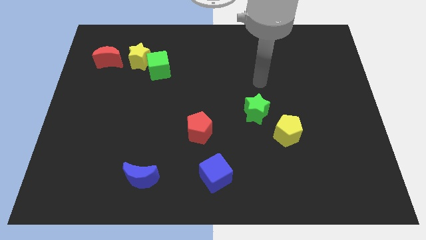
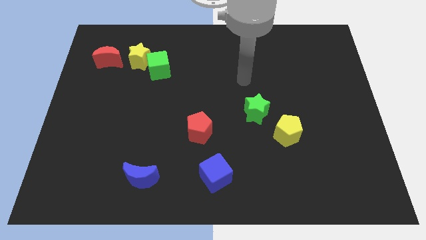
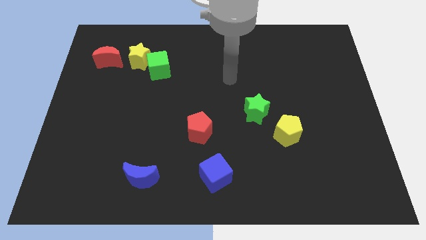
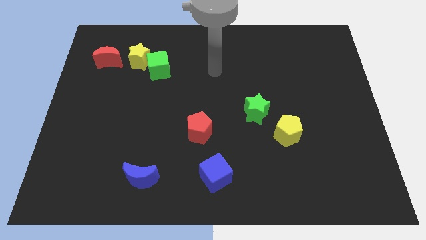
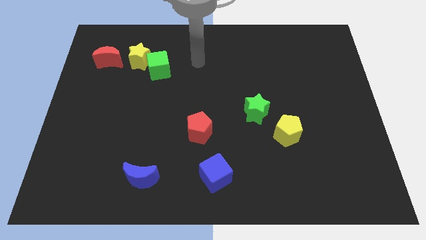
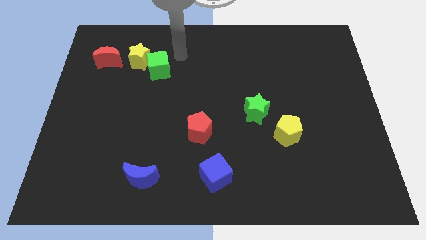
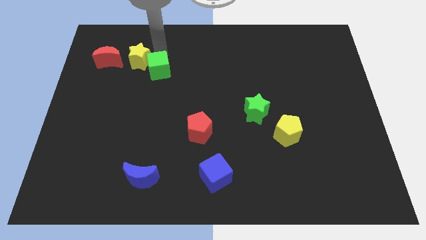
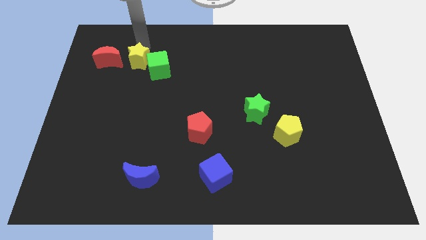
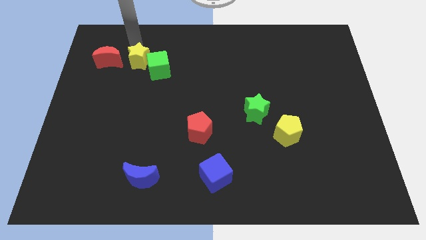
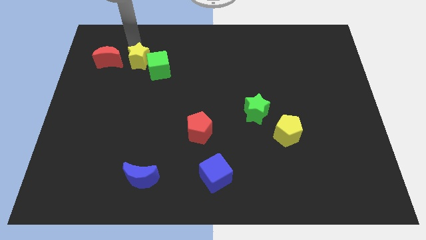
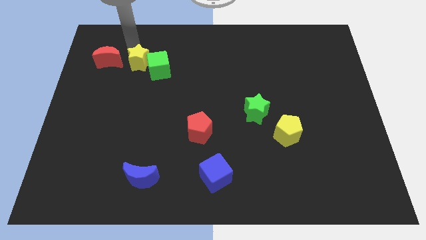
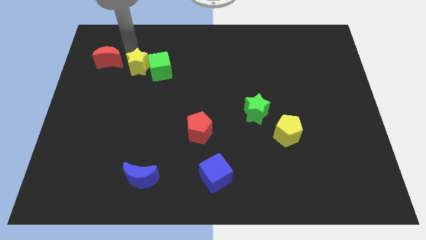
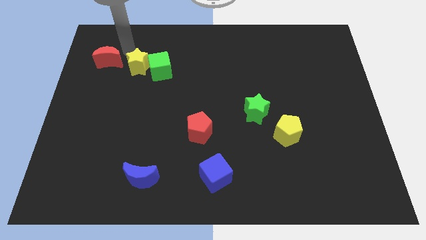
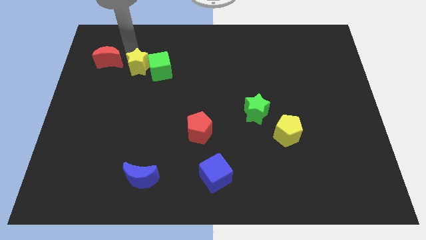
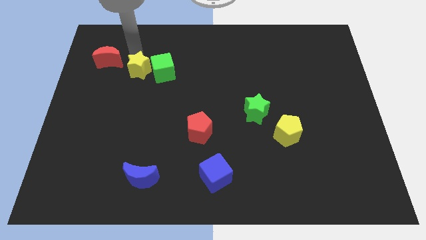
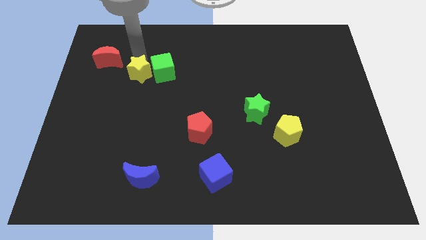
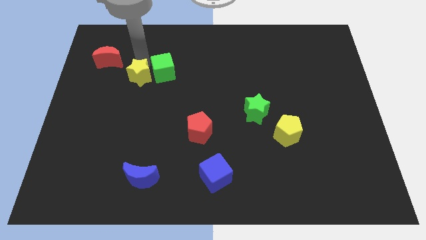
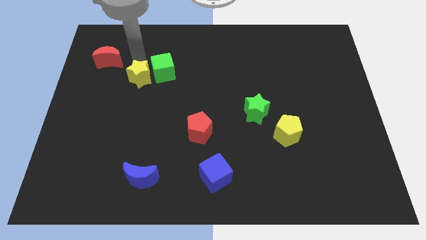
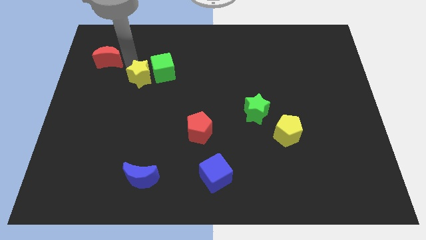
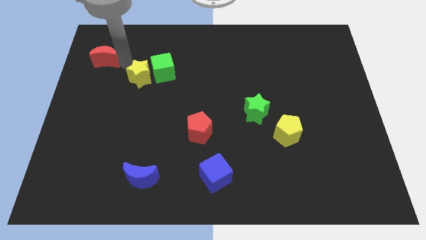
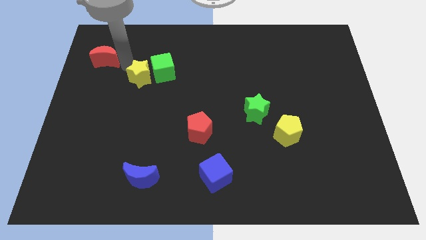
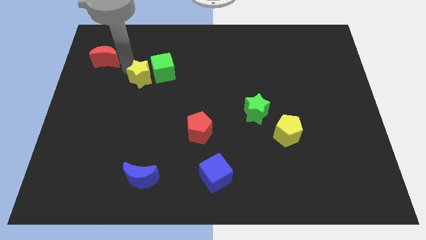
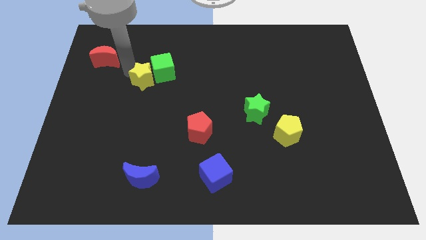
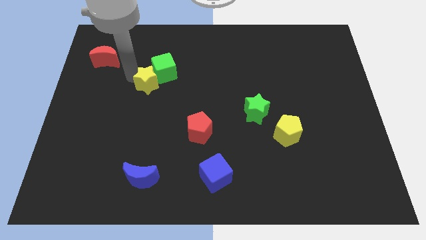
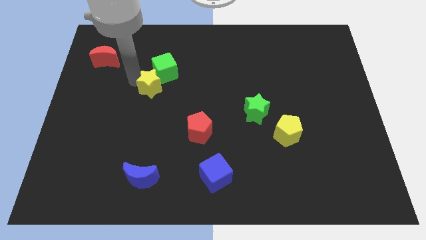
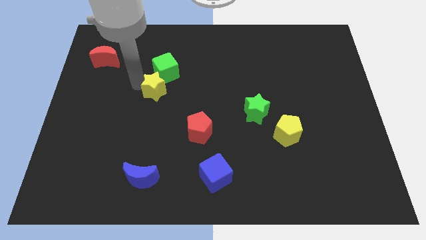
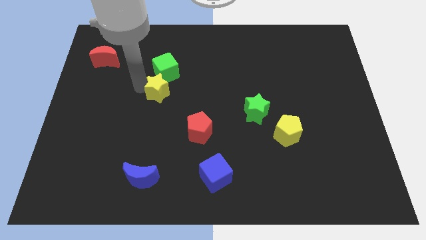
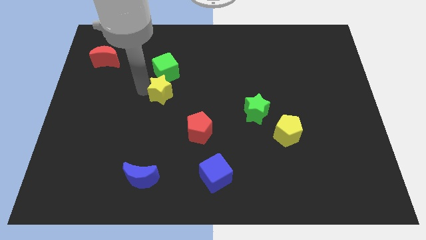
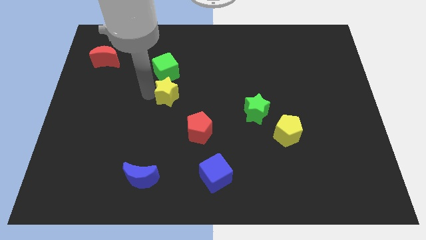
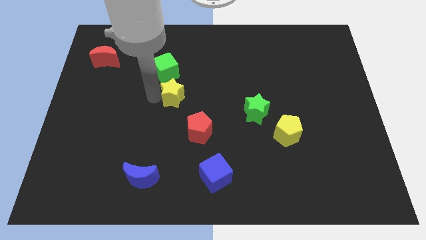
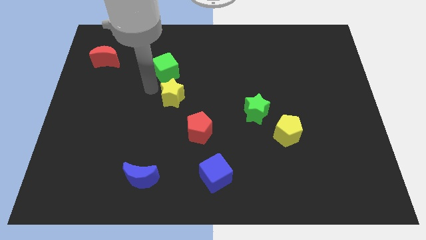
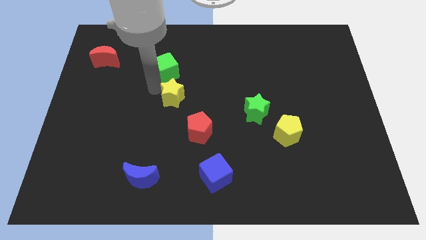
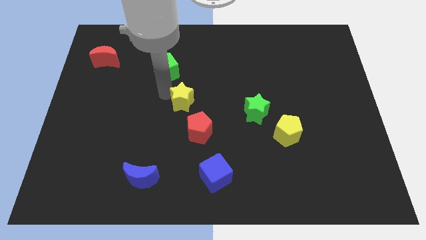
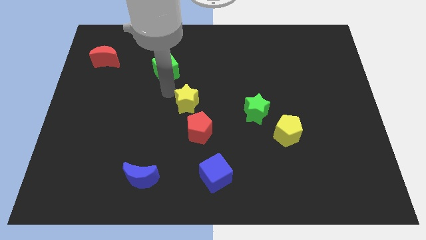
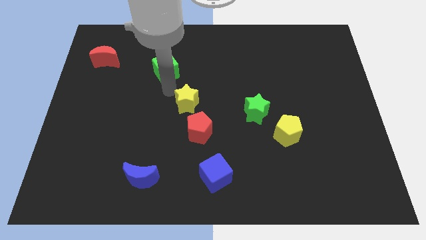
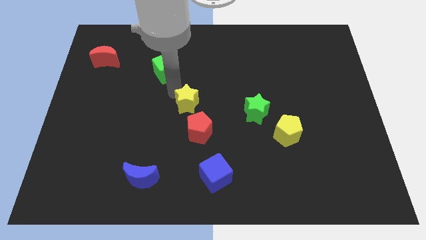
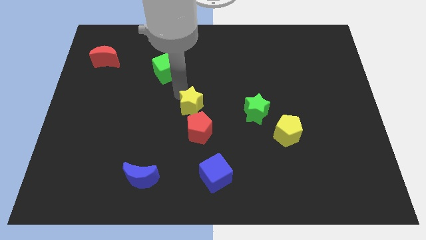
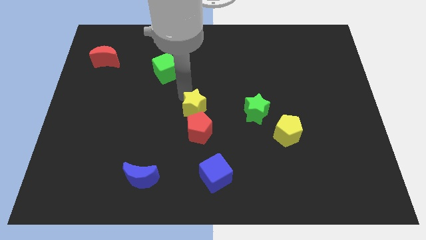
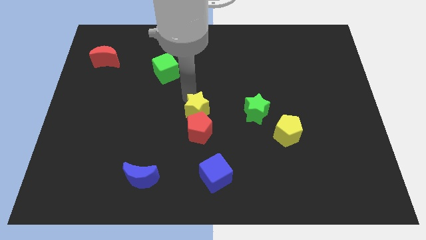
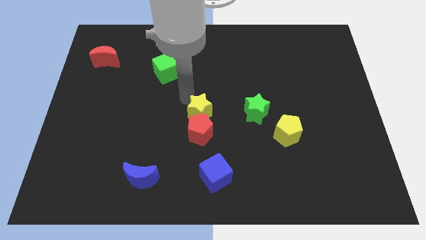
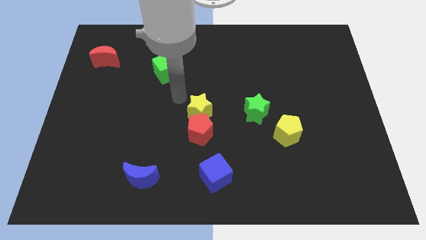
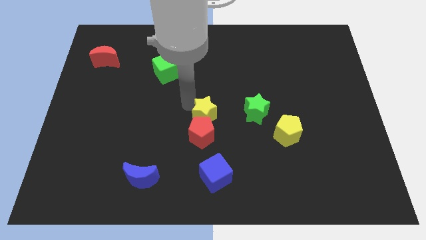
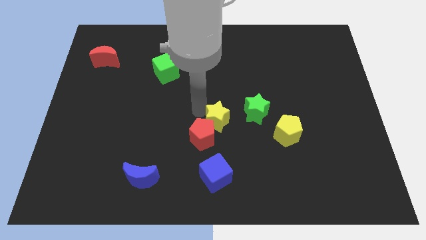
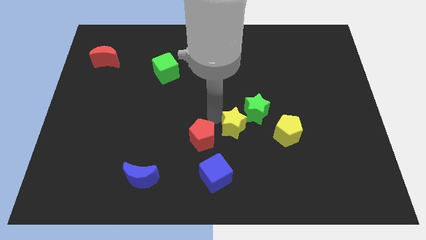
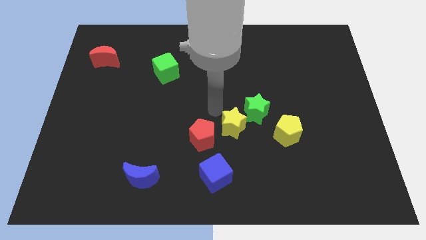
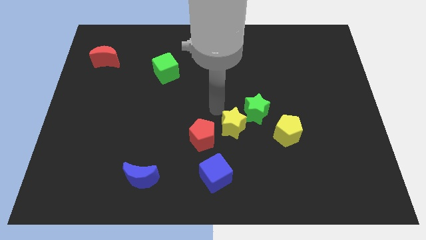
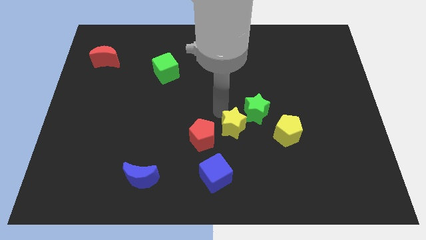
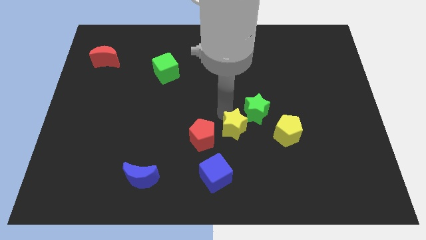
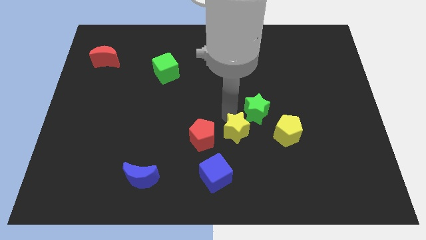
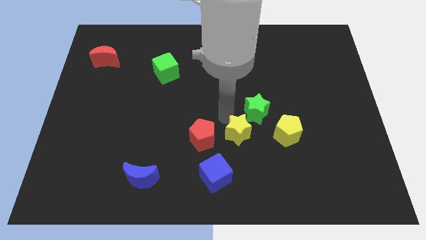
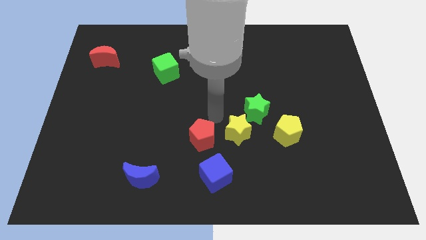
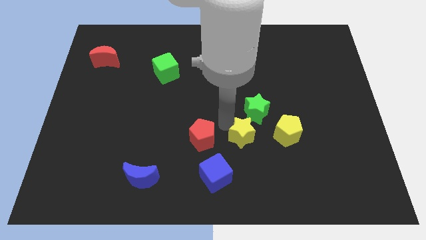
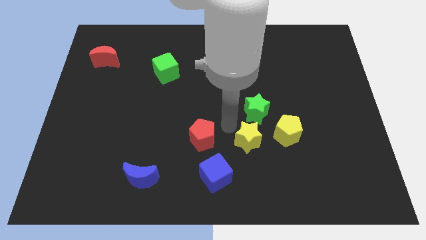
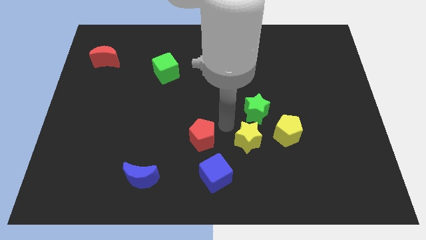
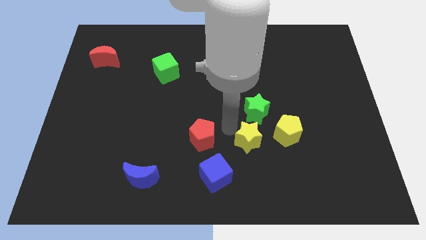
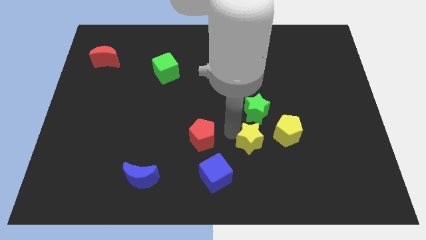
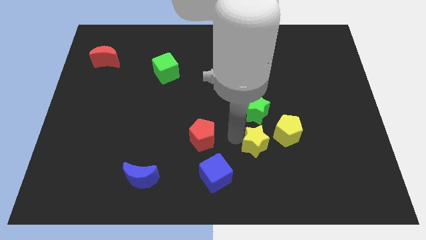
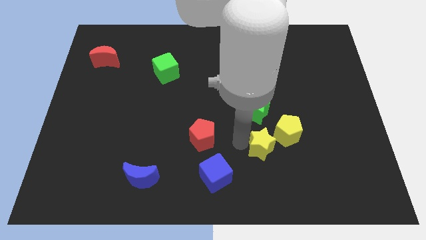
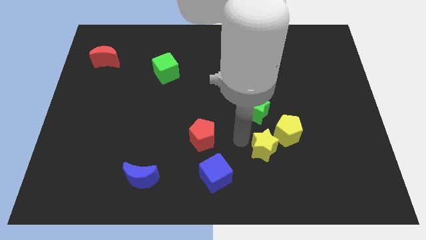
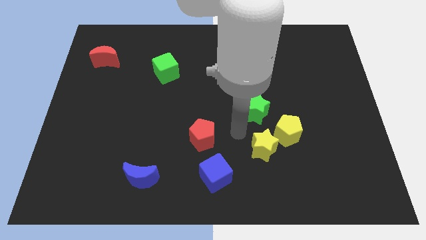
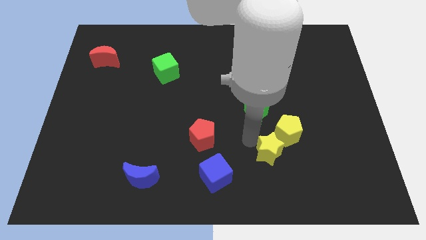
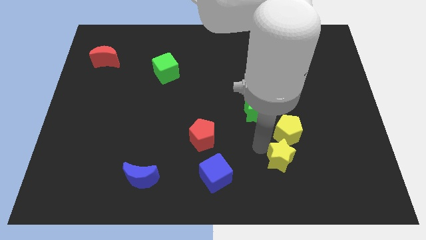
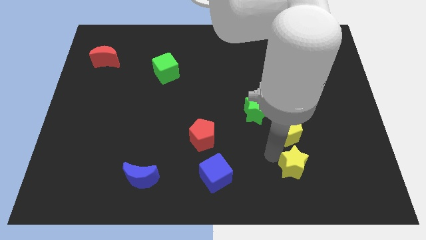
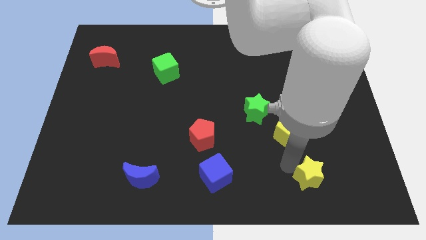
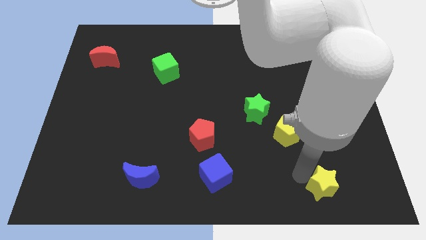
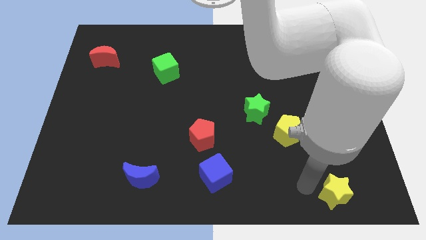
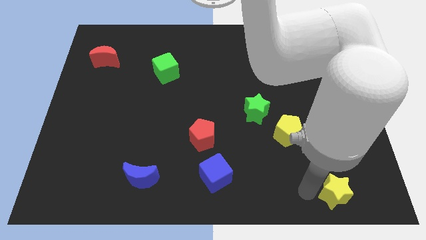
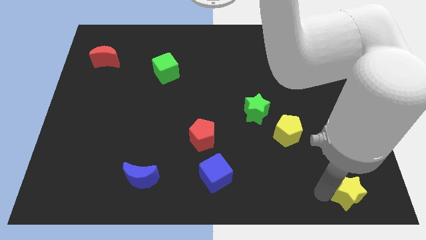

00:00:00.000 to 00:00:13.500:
put the yellow star to the bottom right corner

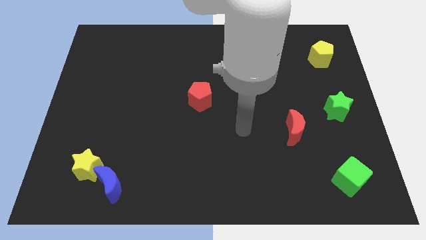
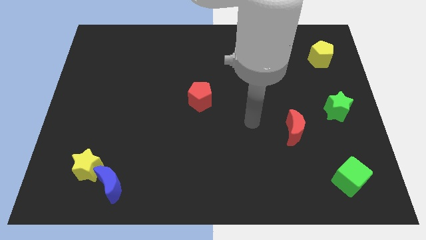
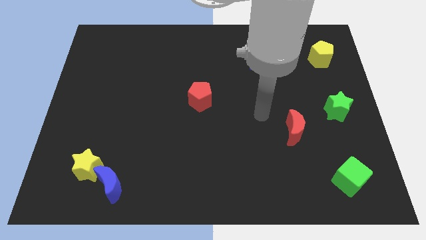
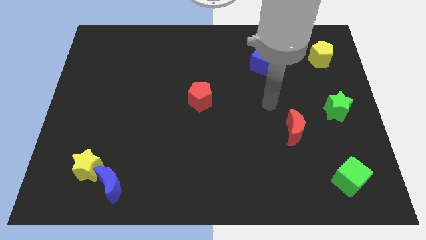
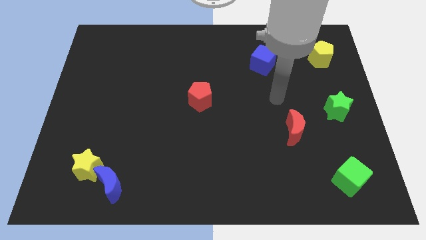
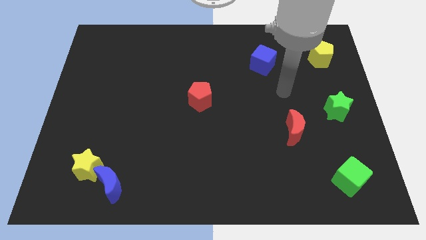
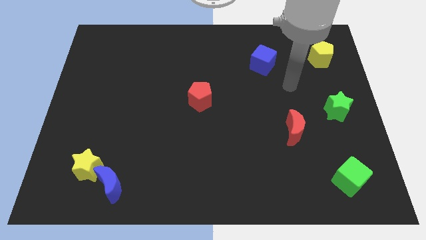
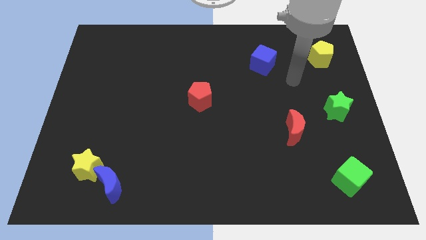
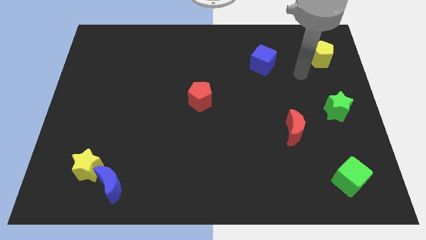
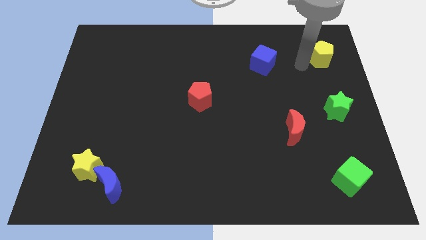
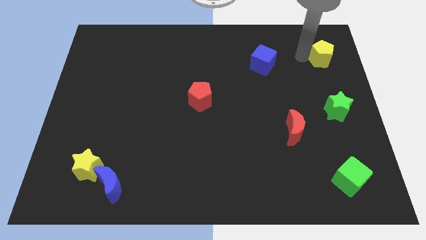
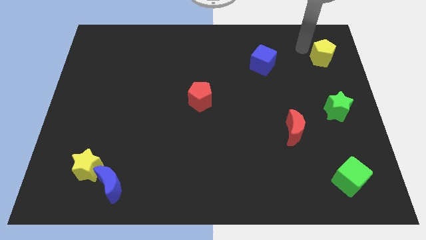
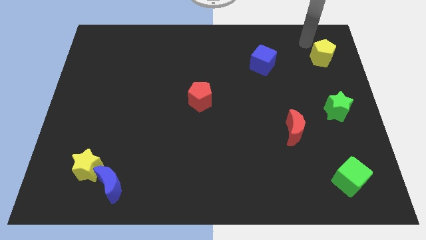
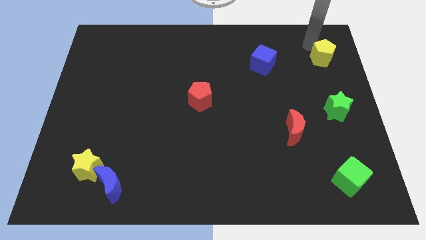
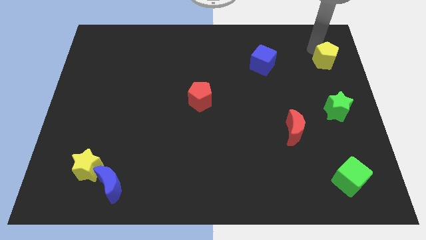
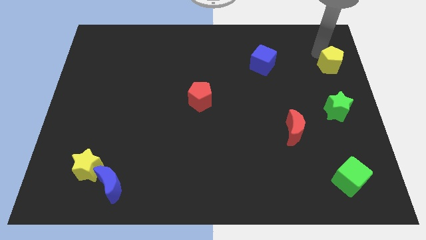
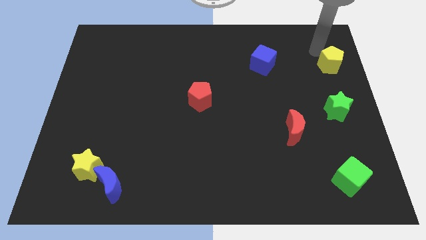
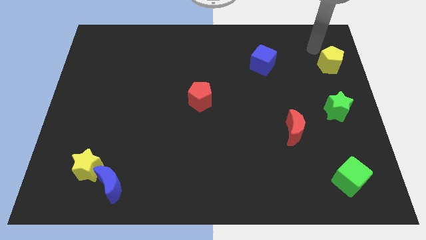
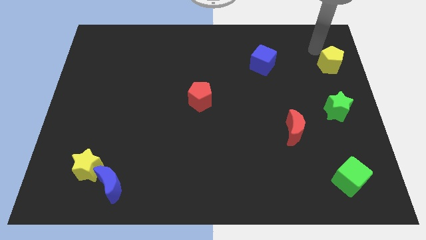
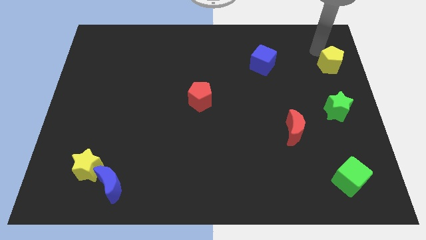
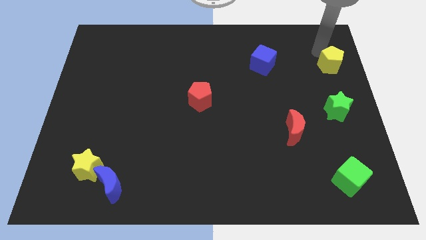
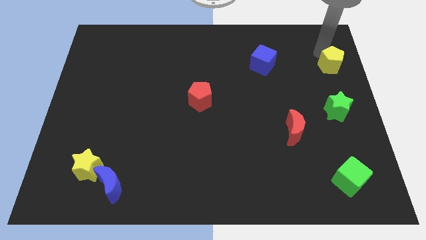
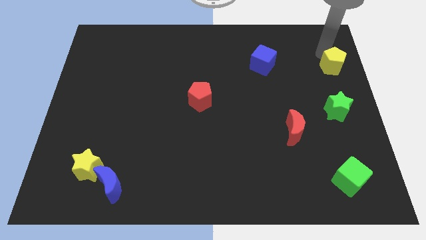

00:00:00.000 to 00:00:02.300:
slide the yellow pentagon to the center right
